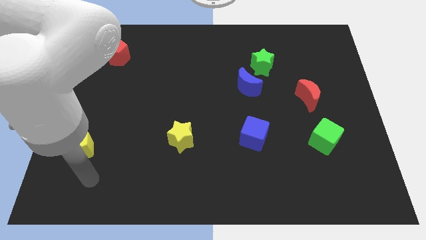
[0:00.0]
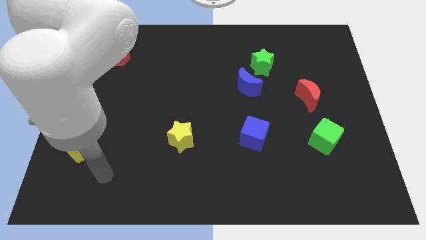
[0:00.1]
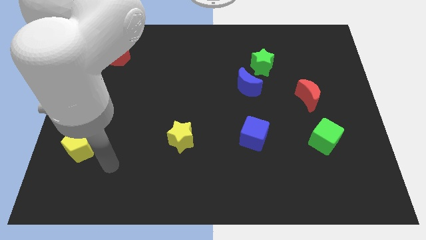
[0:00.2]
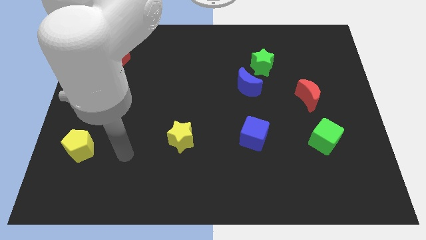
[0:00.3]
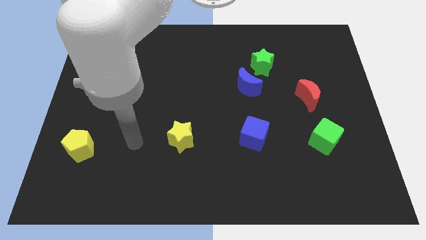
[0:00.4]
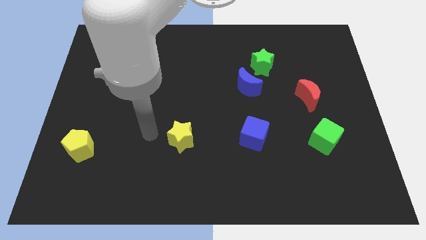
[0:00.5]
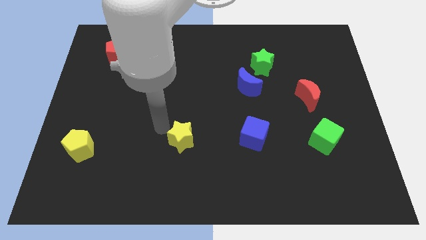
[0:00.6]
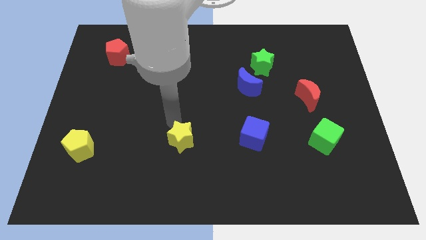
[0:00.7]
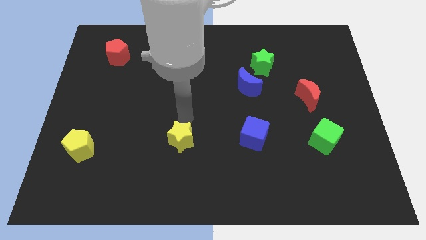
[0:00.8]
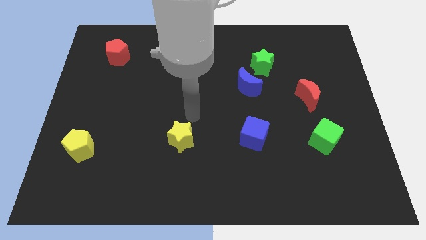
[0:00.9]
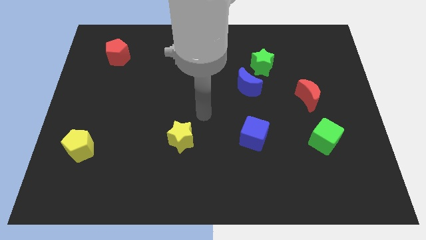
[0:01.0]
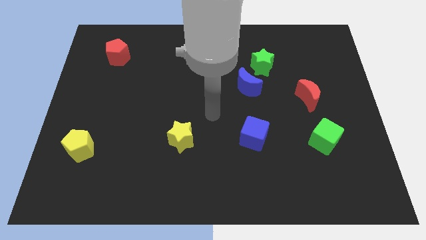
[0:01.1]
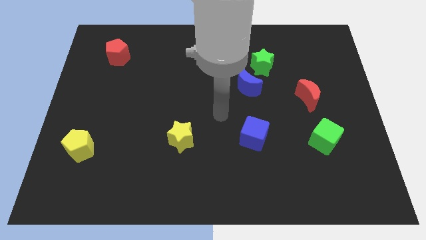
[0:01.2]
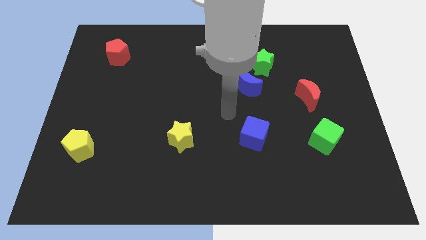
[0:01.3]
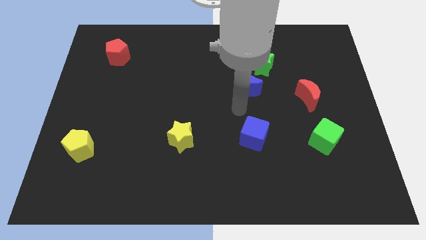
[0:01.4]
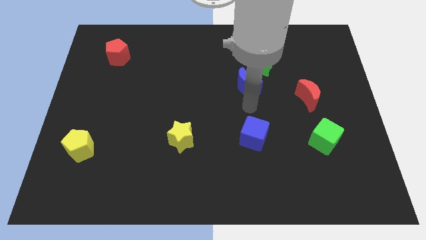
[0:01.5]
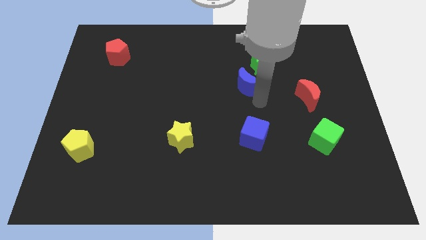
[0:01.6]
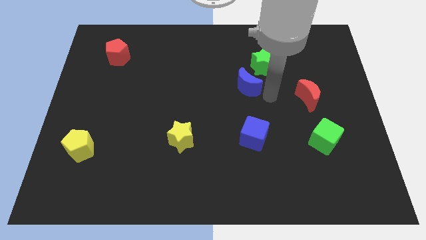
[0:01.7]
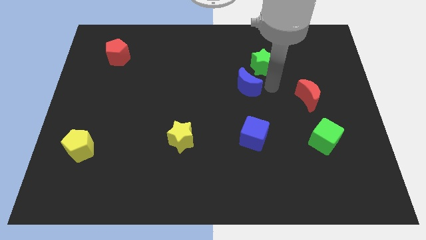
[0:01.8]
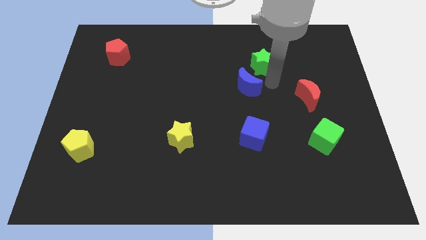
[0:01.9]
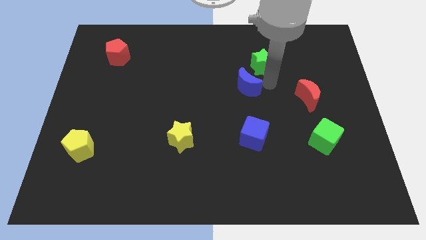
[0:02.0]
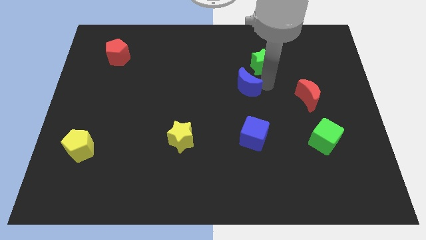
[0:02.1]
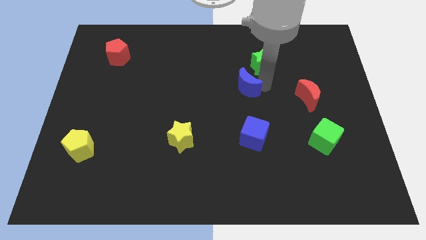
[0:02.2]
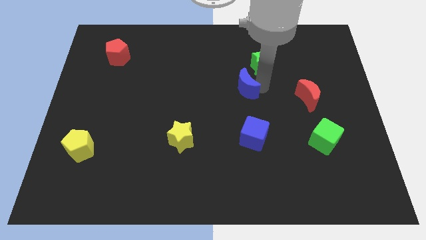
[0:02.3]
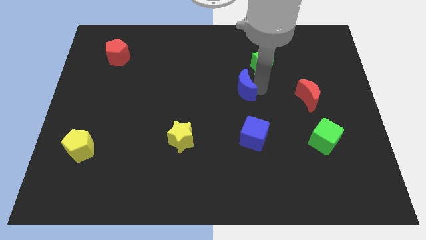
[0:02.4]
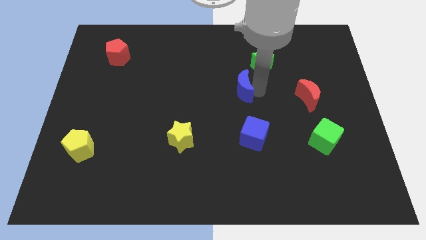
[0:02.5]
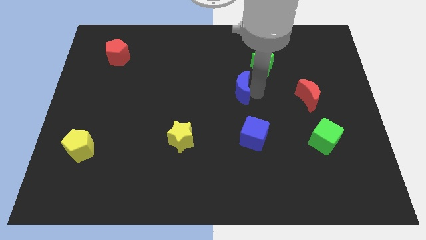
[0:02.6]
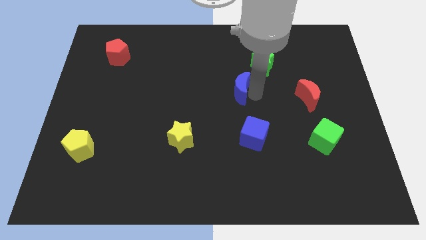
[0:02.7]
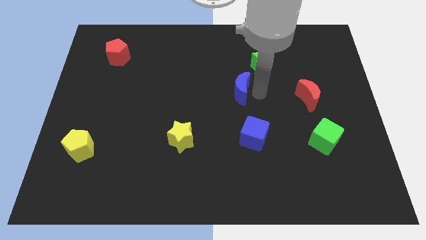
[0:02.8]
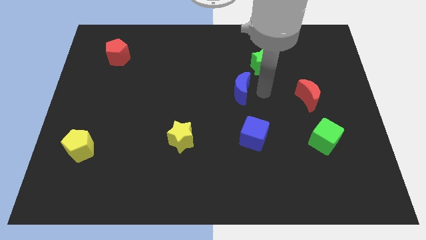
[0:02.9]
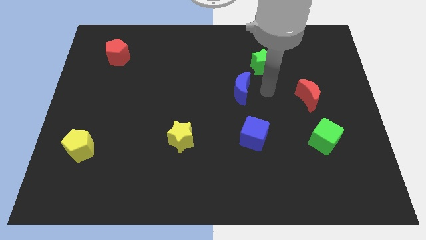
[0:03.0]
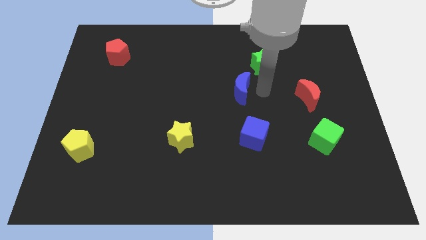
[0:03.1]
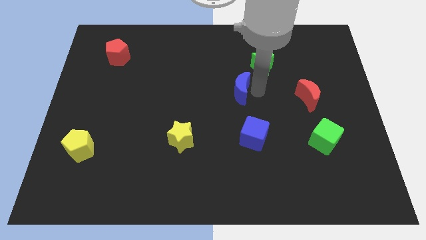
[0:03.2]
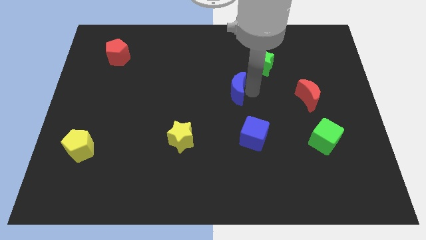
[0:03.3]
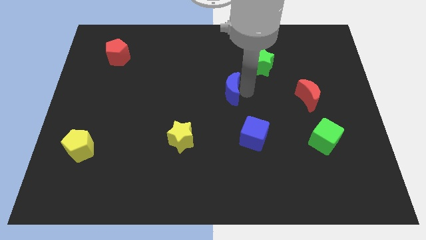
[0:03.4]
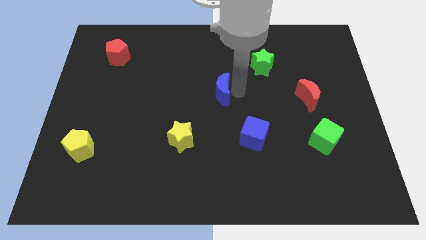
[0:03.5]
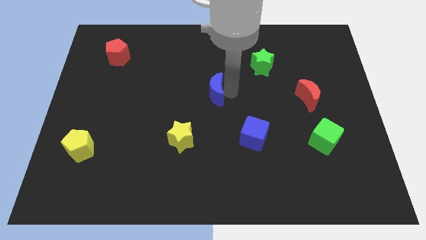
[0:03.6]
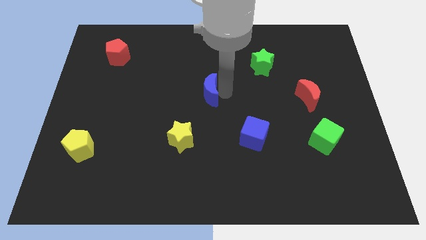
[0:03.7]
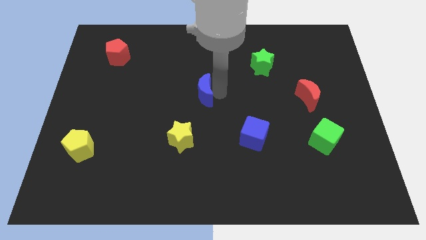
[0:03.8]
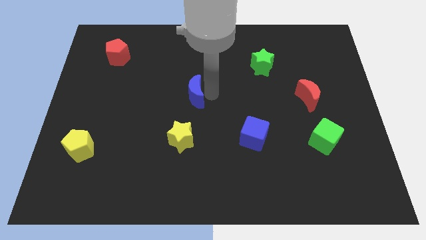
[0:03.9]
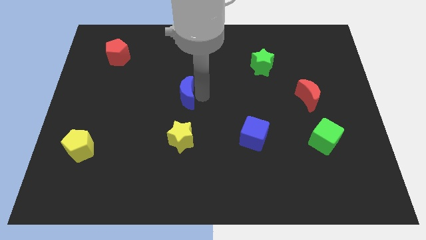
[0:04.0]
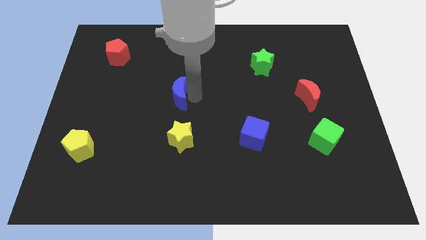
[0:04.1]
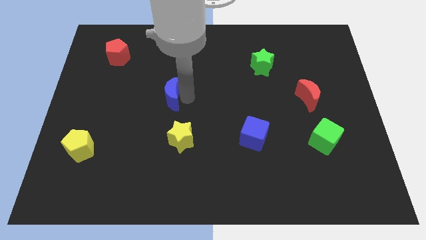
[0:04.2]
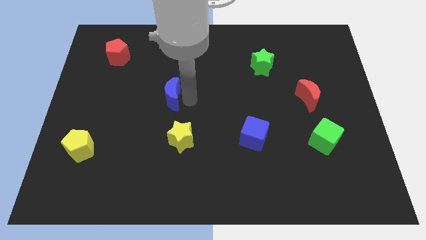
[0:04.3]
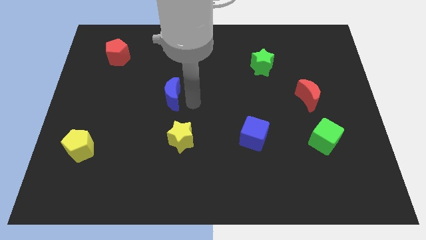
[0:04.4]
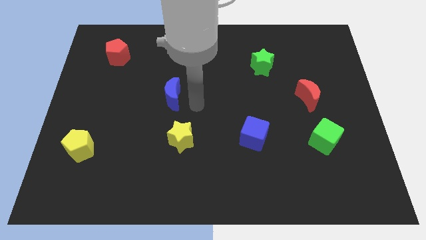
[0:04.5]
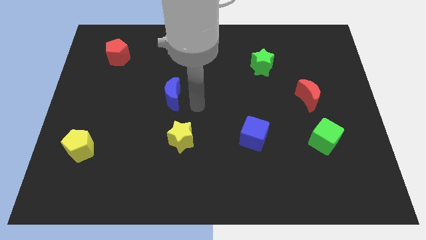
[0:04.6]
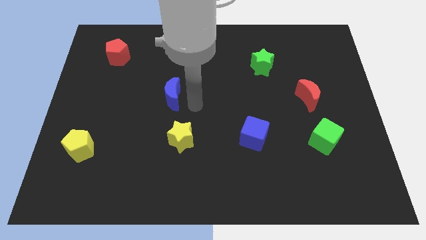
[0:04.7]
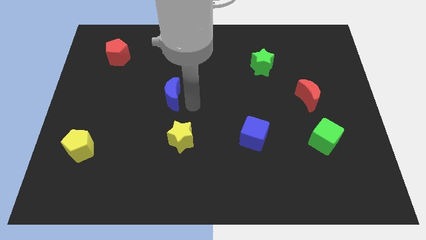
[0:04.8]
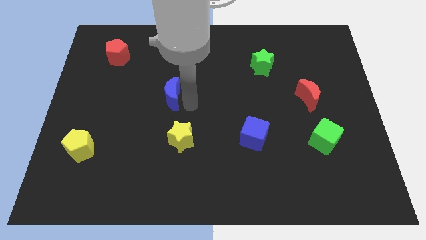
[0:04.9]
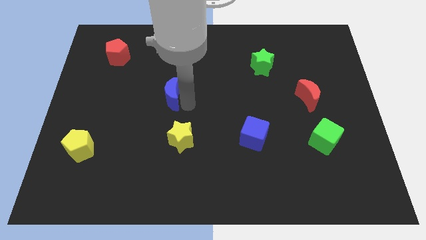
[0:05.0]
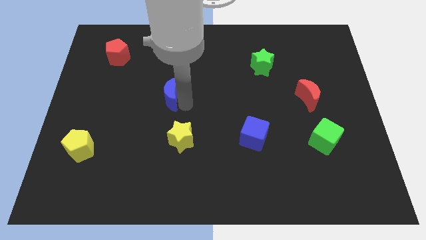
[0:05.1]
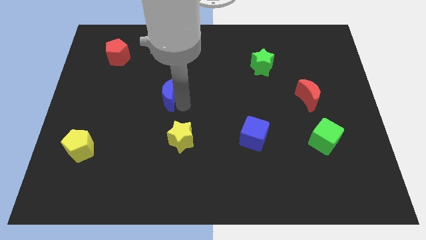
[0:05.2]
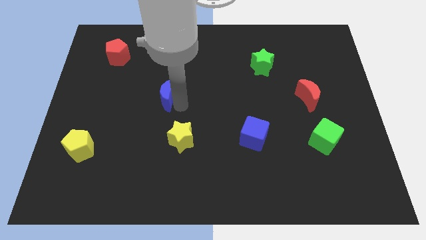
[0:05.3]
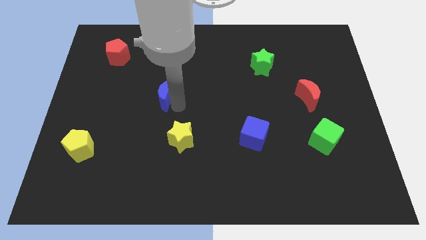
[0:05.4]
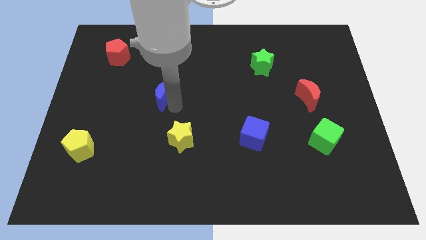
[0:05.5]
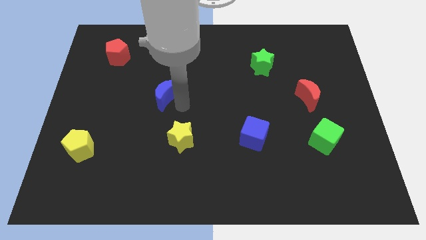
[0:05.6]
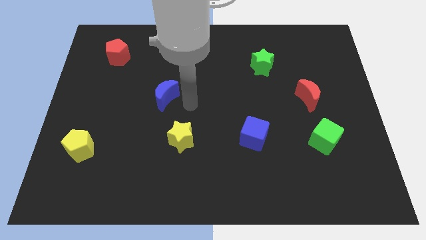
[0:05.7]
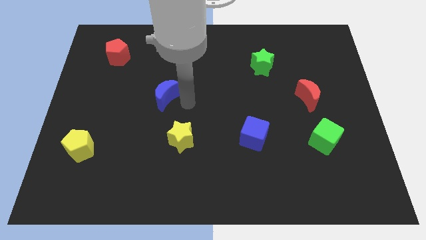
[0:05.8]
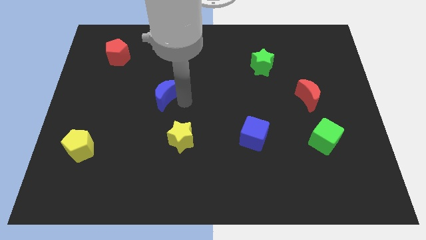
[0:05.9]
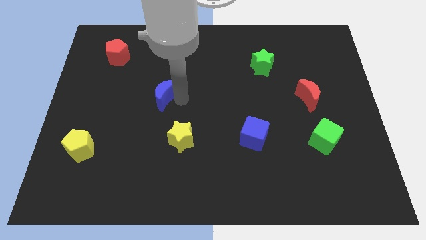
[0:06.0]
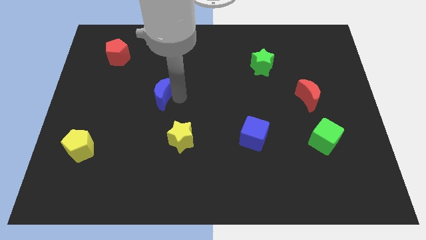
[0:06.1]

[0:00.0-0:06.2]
move the blue moon to the left

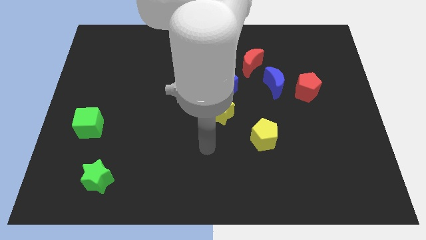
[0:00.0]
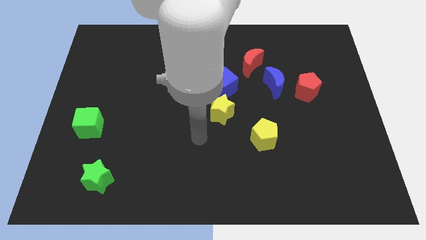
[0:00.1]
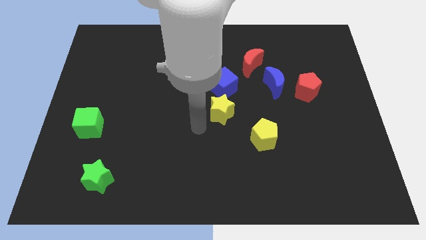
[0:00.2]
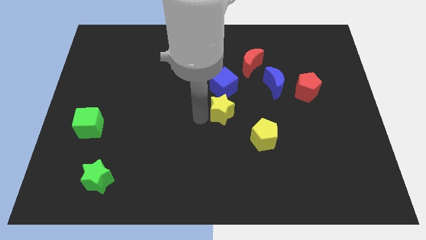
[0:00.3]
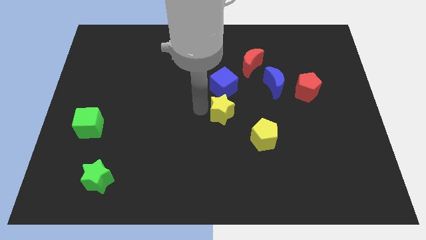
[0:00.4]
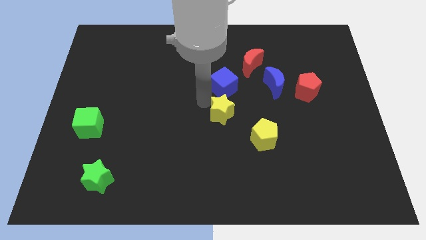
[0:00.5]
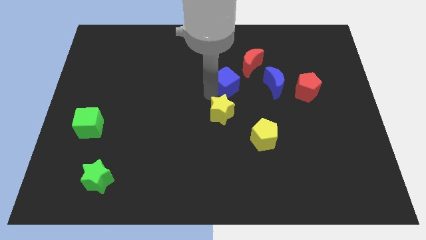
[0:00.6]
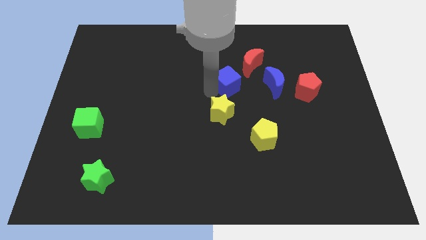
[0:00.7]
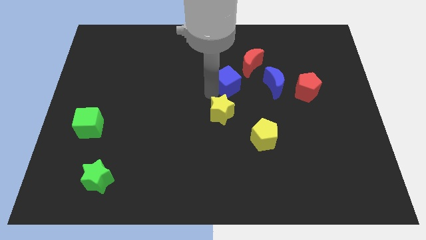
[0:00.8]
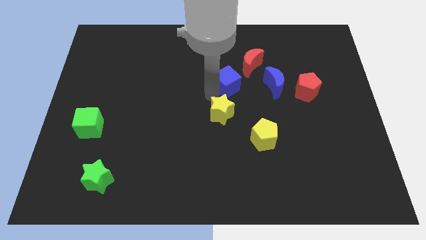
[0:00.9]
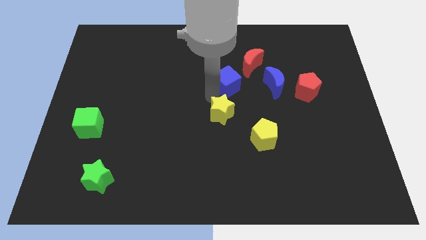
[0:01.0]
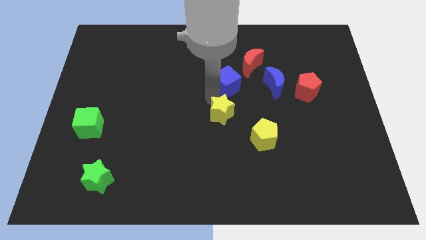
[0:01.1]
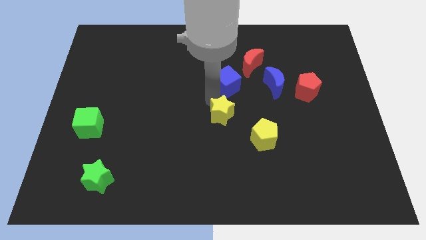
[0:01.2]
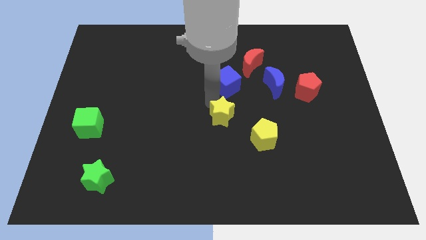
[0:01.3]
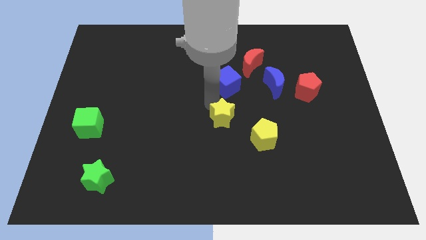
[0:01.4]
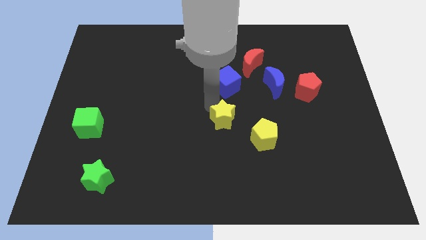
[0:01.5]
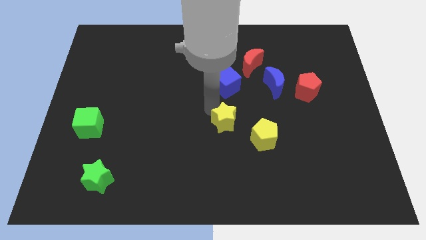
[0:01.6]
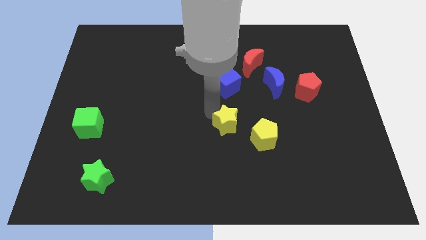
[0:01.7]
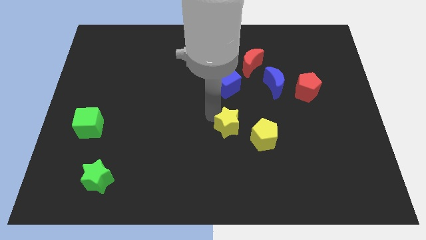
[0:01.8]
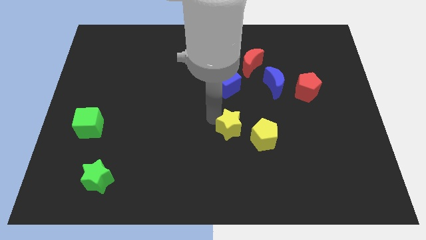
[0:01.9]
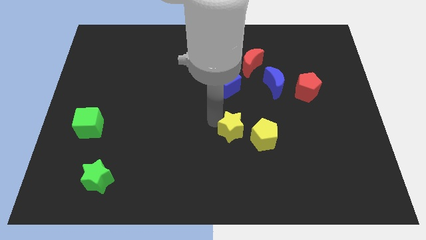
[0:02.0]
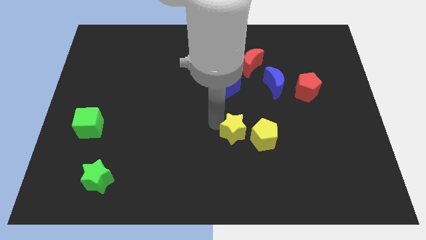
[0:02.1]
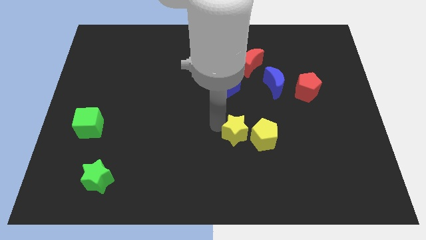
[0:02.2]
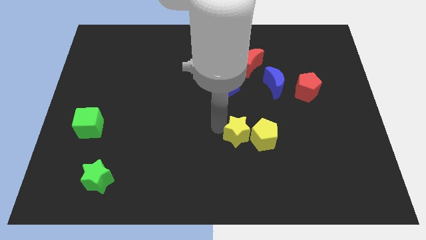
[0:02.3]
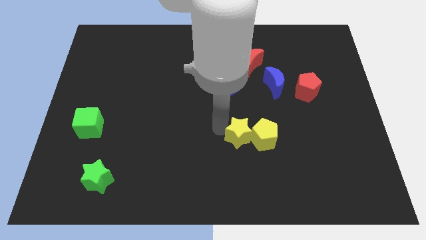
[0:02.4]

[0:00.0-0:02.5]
slide the yellow star downwards and to the right a little
